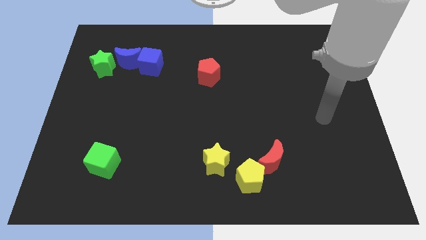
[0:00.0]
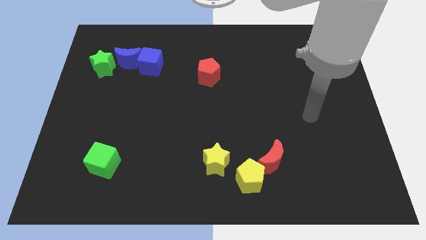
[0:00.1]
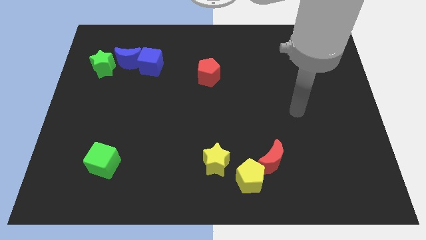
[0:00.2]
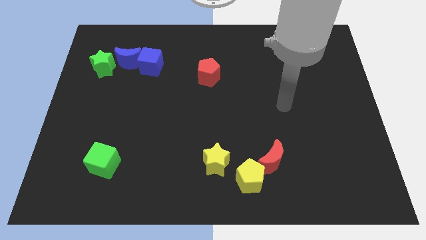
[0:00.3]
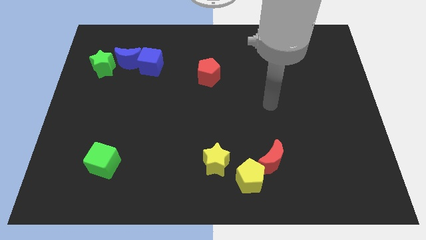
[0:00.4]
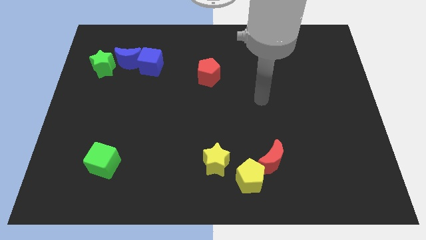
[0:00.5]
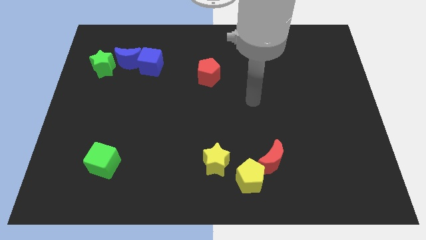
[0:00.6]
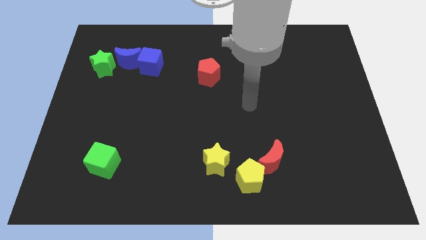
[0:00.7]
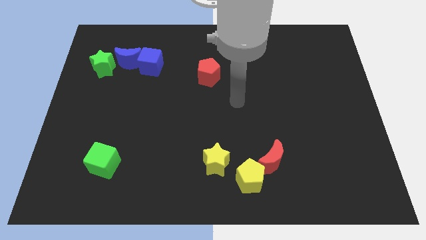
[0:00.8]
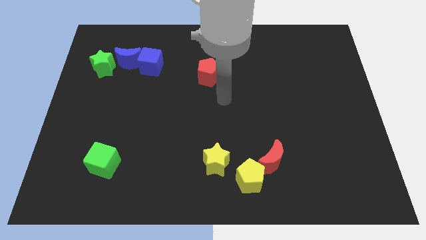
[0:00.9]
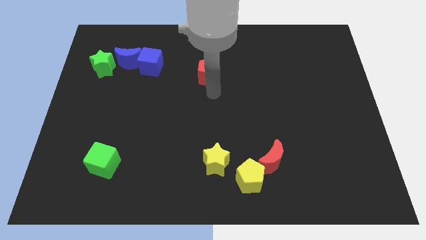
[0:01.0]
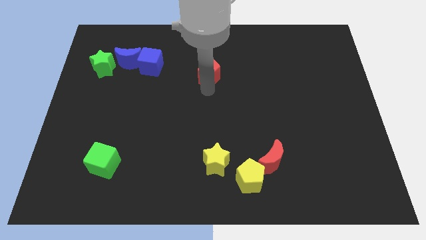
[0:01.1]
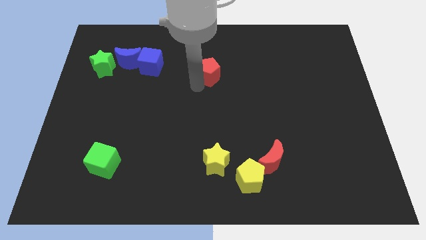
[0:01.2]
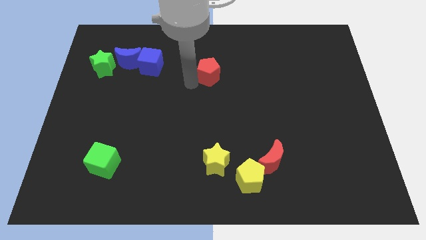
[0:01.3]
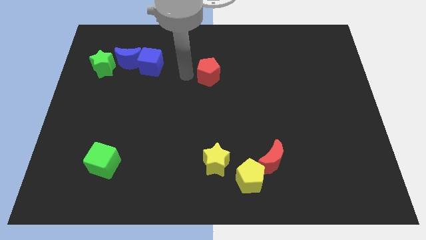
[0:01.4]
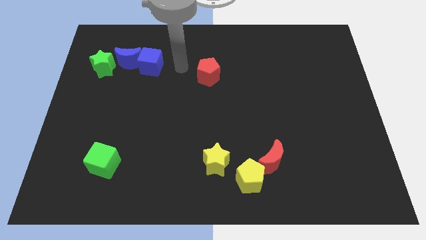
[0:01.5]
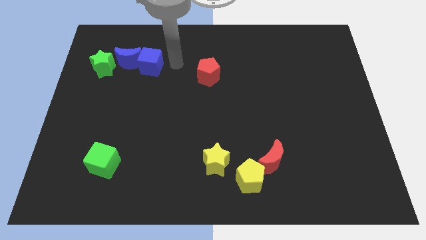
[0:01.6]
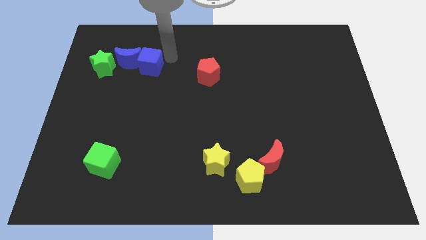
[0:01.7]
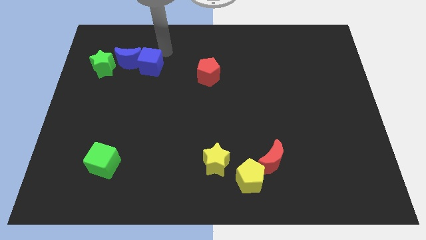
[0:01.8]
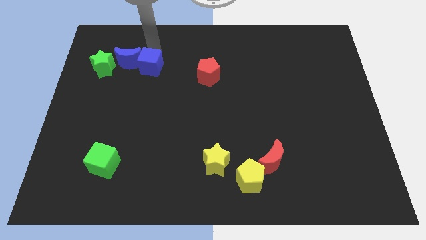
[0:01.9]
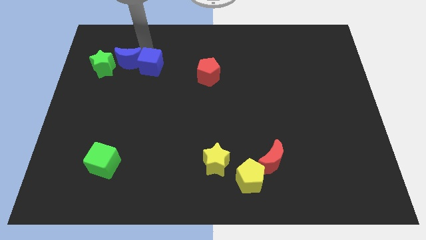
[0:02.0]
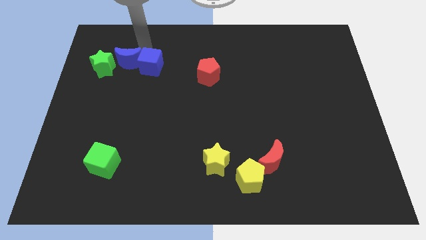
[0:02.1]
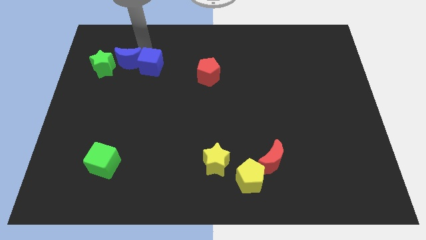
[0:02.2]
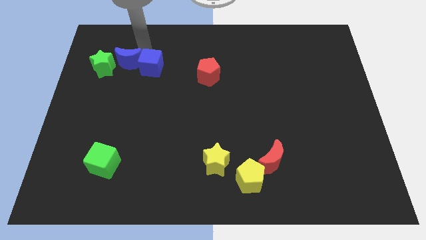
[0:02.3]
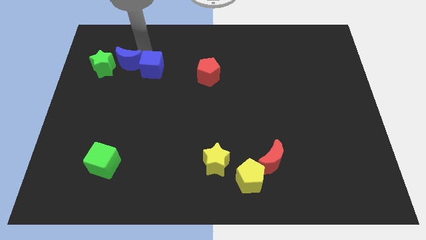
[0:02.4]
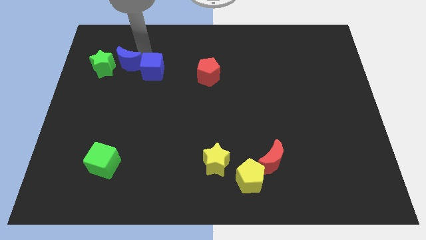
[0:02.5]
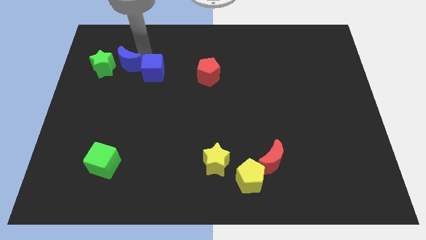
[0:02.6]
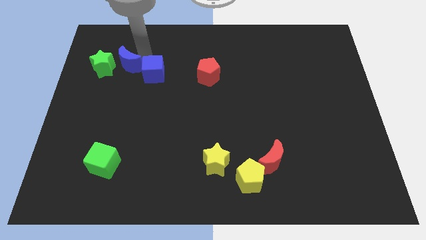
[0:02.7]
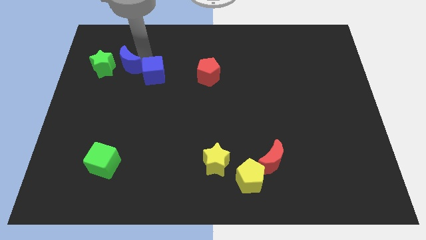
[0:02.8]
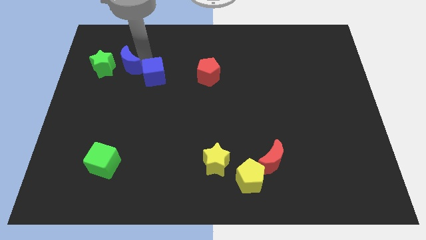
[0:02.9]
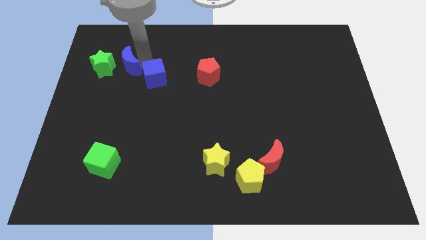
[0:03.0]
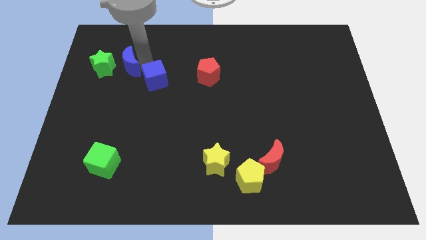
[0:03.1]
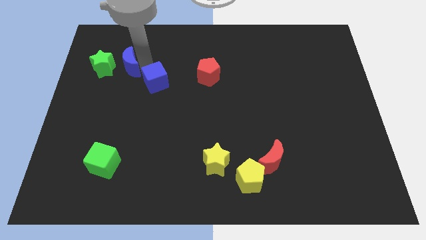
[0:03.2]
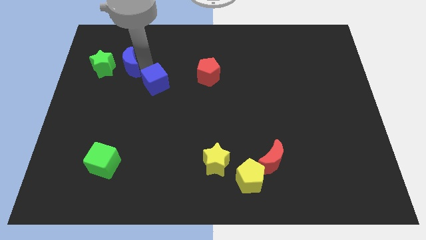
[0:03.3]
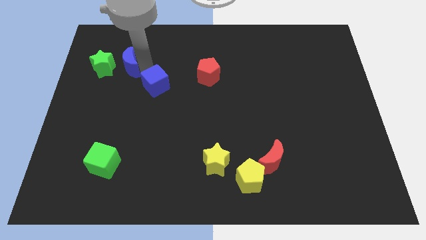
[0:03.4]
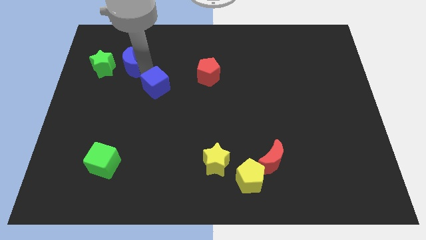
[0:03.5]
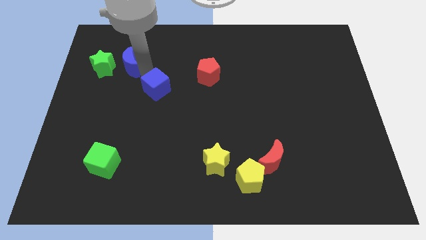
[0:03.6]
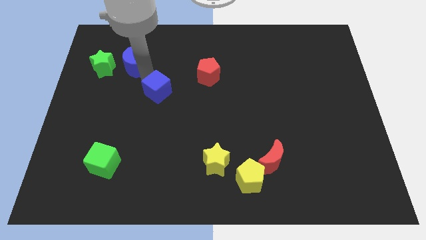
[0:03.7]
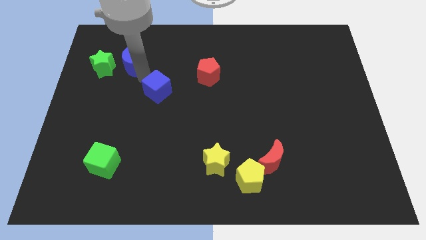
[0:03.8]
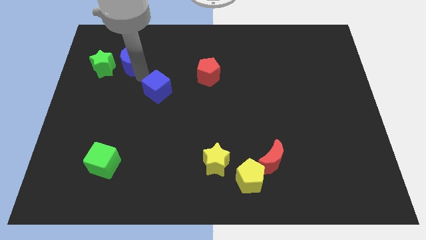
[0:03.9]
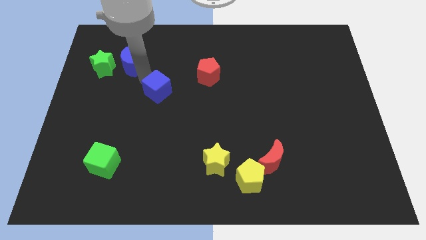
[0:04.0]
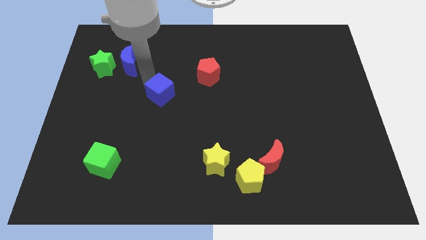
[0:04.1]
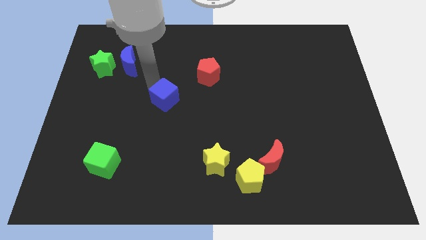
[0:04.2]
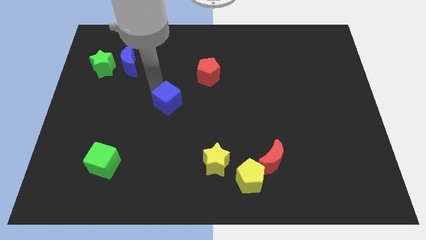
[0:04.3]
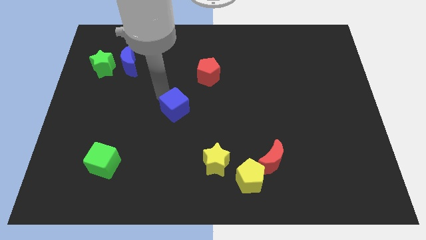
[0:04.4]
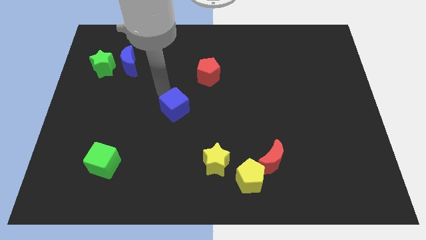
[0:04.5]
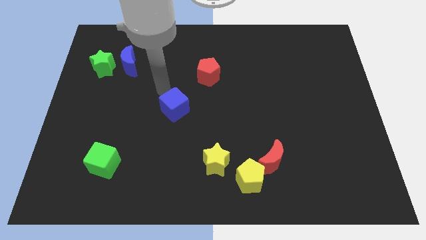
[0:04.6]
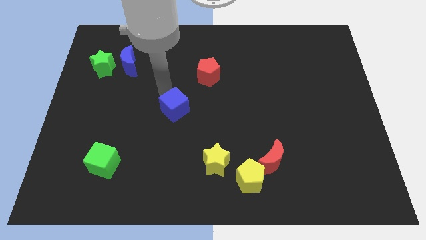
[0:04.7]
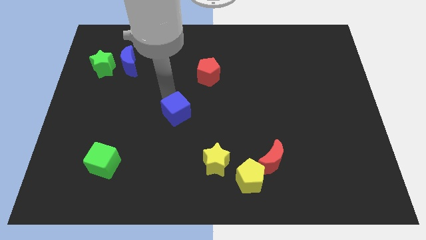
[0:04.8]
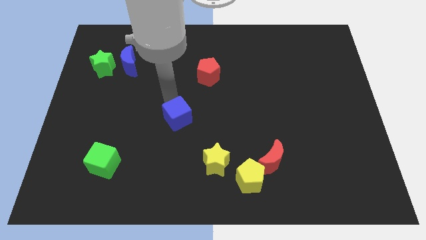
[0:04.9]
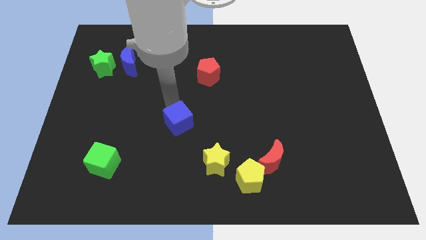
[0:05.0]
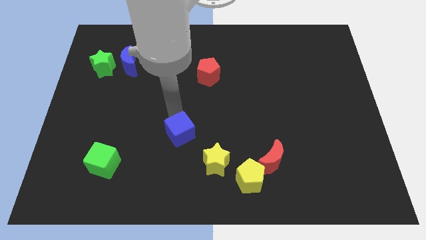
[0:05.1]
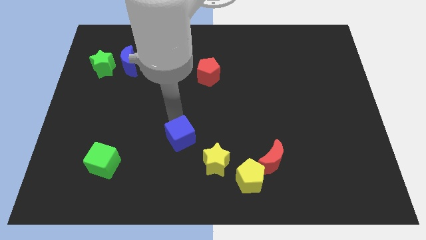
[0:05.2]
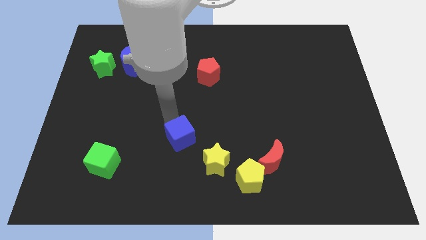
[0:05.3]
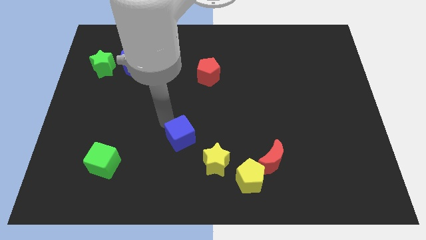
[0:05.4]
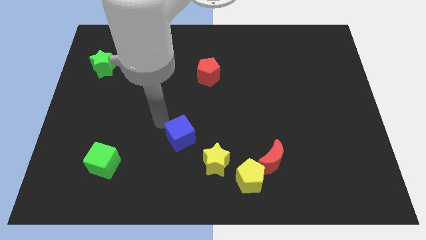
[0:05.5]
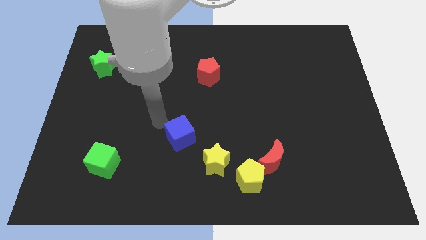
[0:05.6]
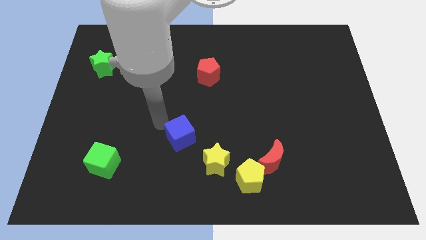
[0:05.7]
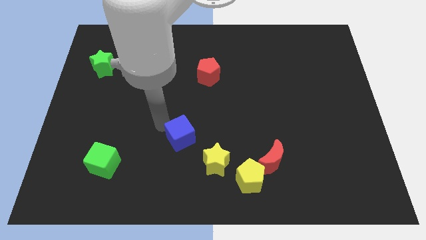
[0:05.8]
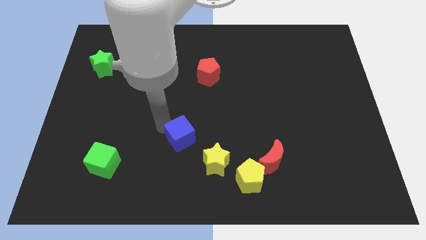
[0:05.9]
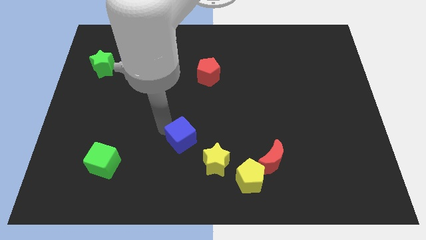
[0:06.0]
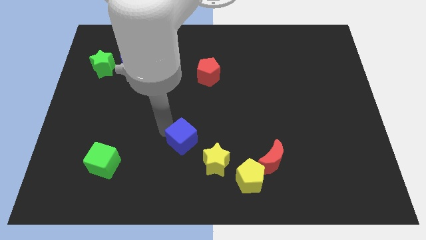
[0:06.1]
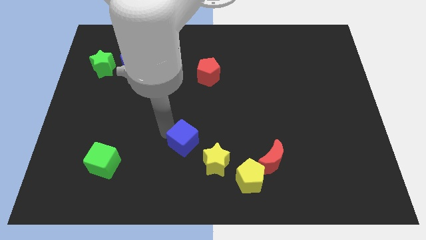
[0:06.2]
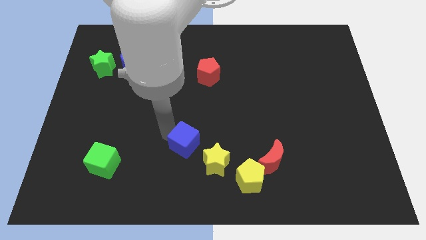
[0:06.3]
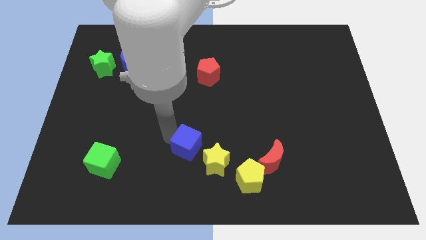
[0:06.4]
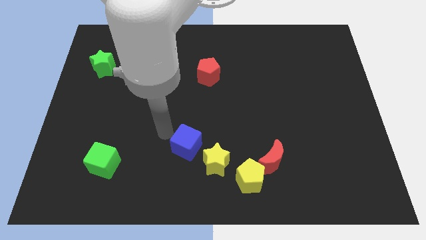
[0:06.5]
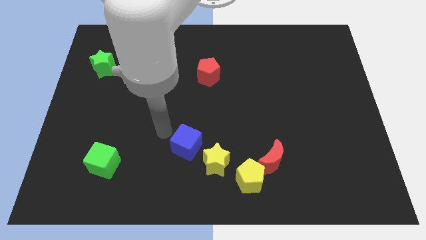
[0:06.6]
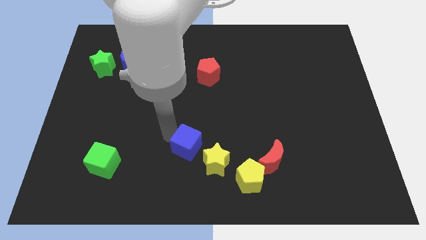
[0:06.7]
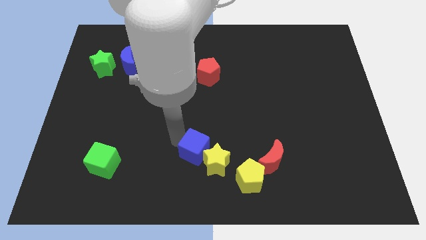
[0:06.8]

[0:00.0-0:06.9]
push the blue cube next to the yellow star
